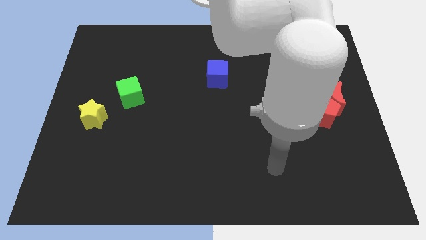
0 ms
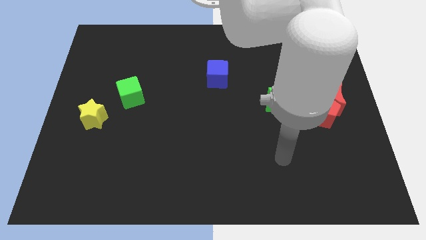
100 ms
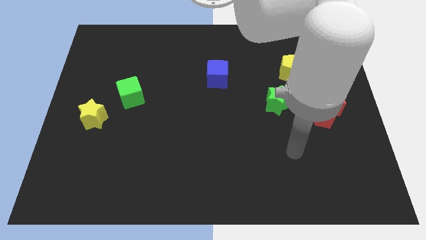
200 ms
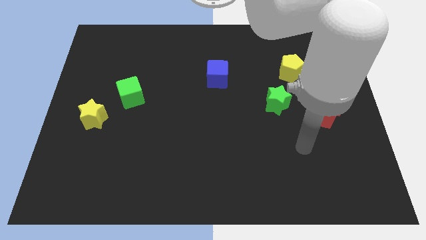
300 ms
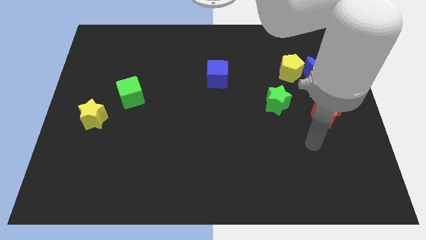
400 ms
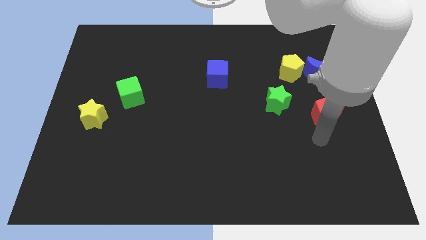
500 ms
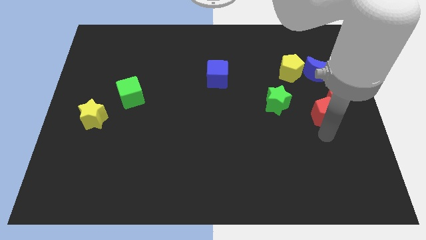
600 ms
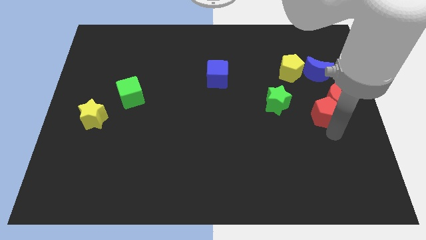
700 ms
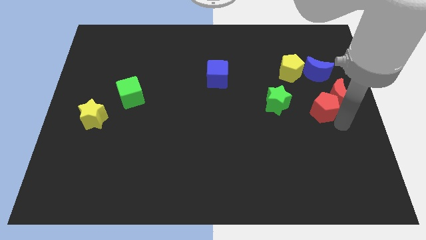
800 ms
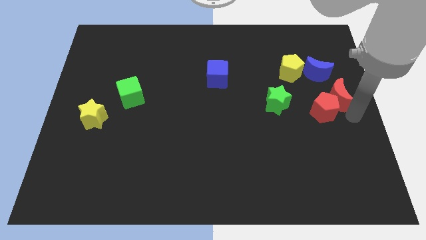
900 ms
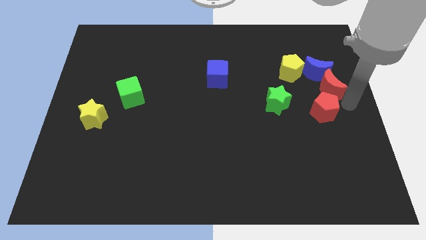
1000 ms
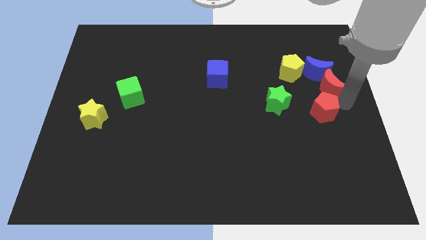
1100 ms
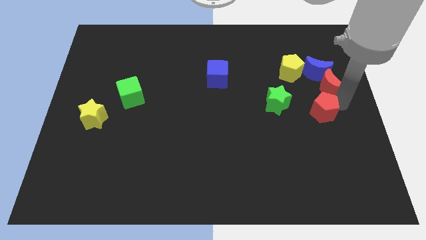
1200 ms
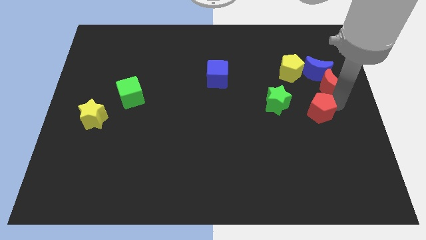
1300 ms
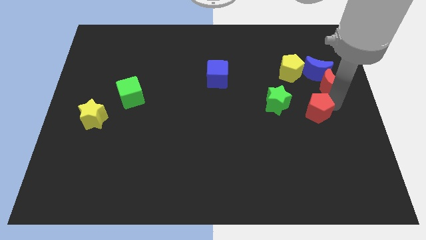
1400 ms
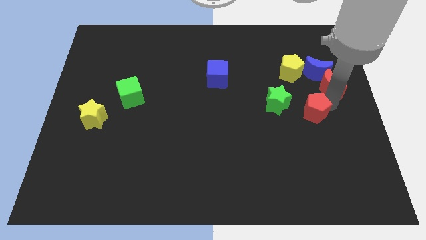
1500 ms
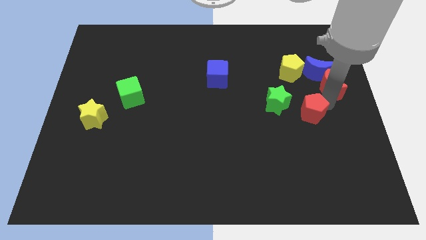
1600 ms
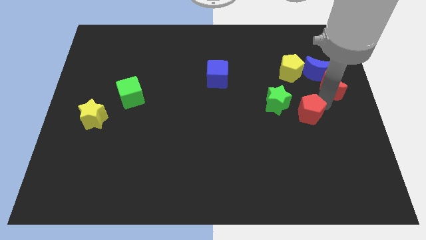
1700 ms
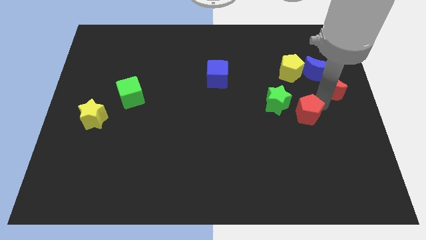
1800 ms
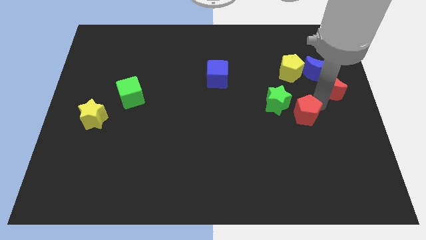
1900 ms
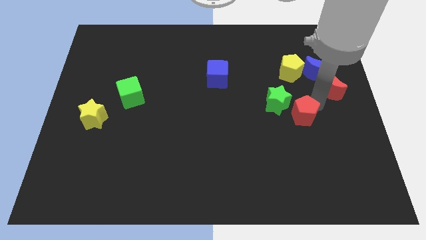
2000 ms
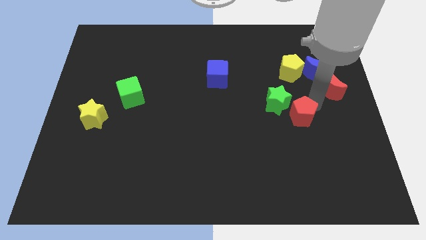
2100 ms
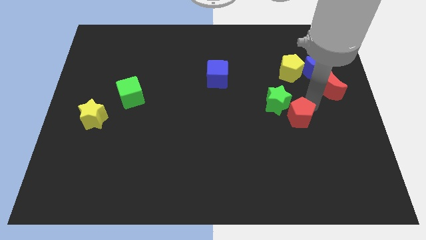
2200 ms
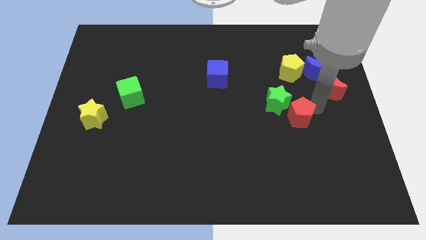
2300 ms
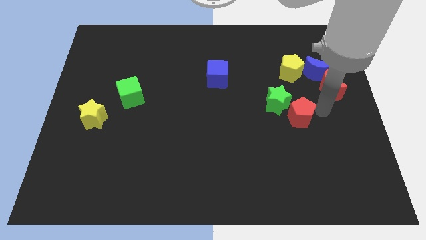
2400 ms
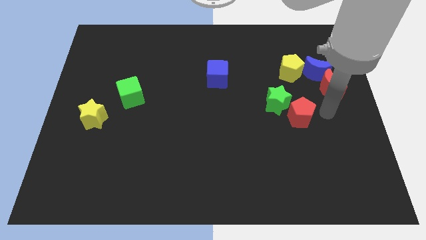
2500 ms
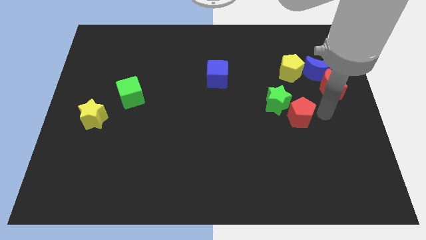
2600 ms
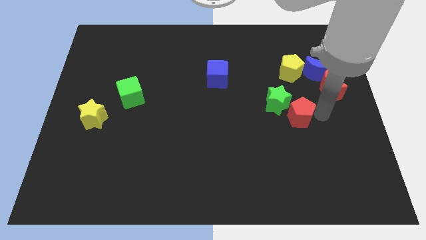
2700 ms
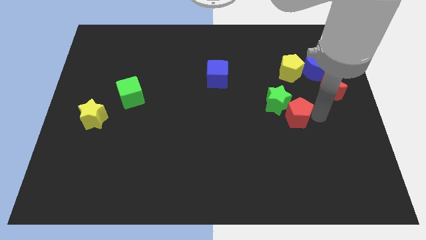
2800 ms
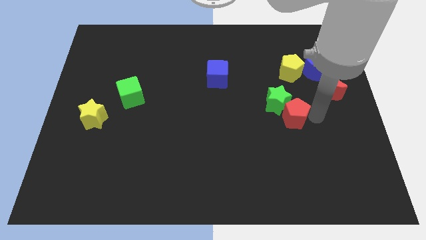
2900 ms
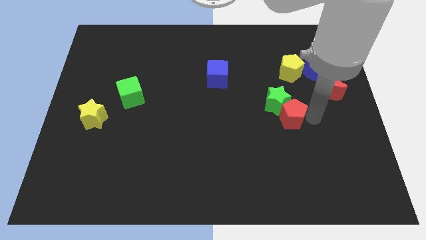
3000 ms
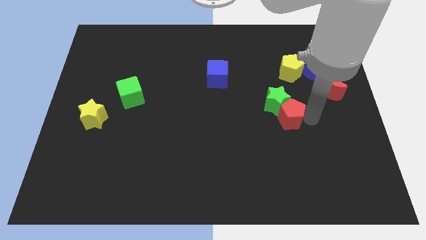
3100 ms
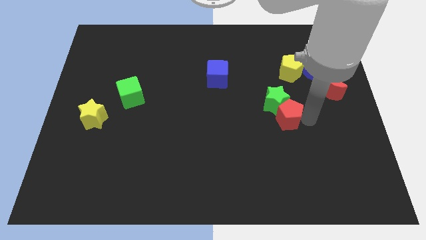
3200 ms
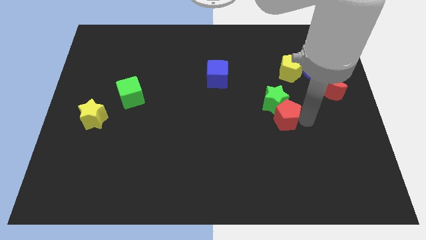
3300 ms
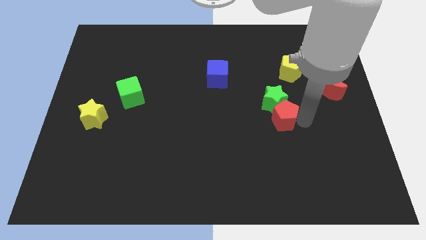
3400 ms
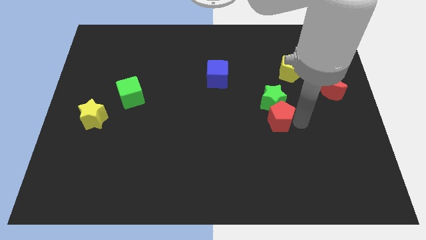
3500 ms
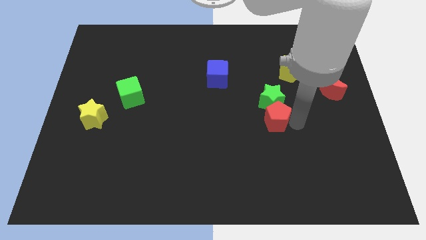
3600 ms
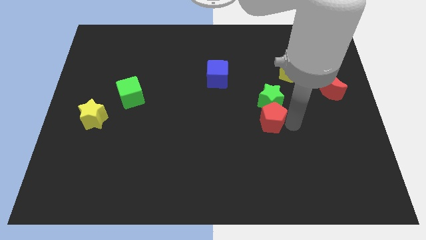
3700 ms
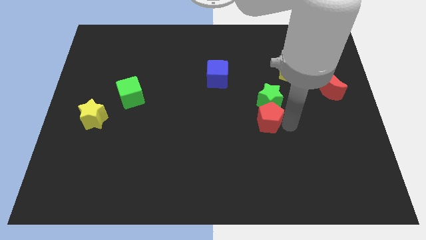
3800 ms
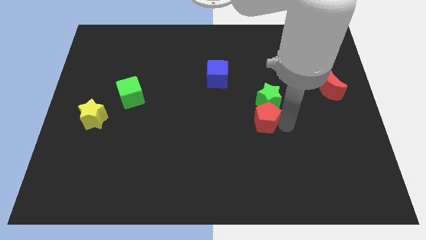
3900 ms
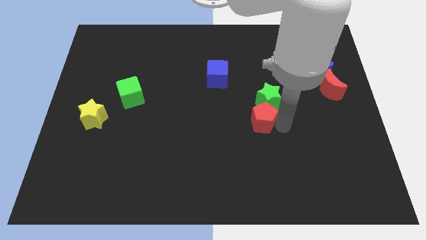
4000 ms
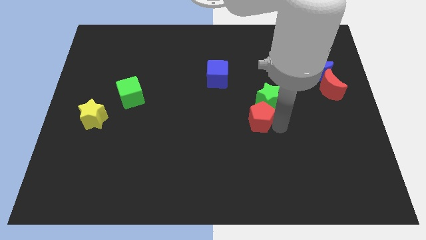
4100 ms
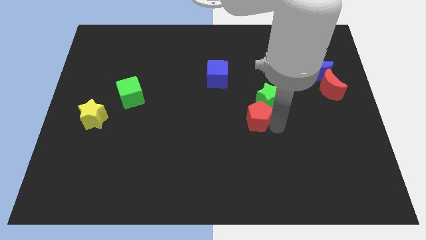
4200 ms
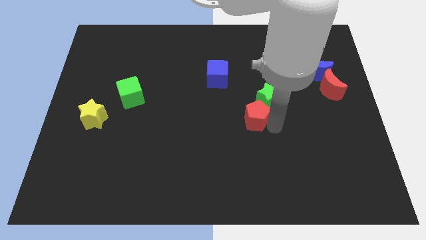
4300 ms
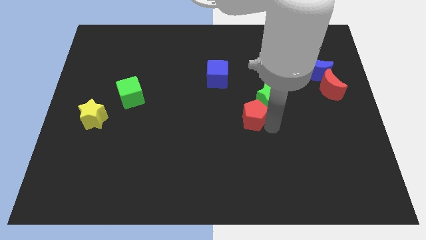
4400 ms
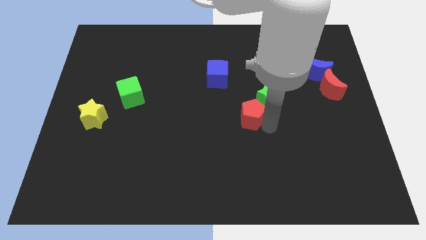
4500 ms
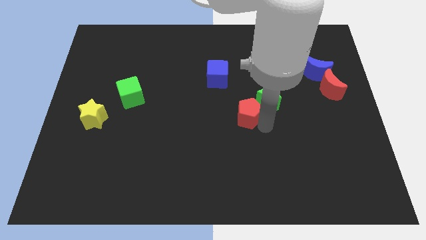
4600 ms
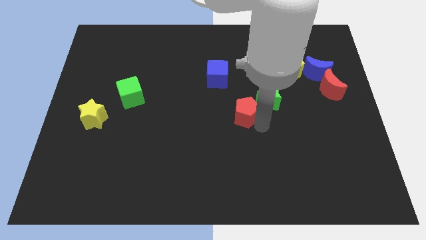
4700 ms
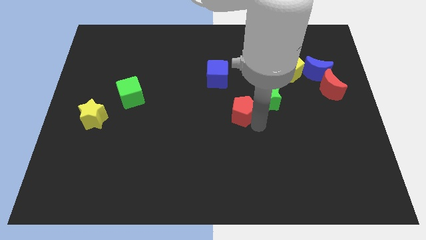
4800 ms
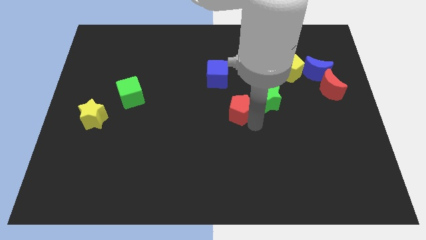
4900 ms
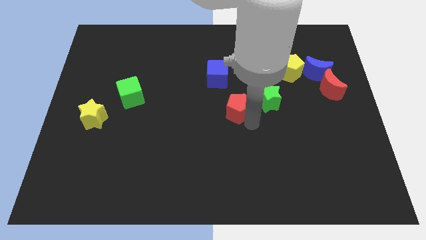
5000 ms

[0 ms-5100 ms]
move the red pentagon left

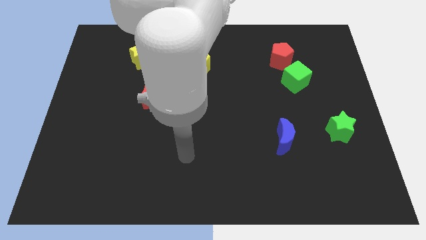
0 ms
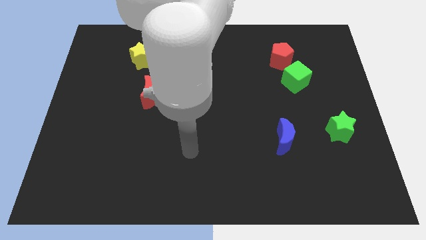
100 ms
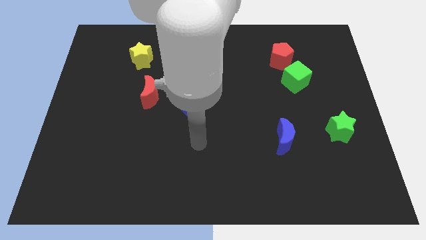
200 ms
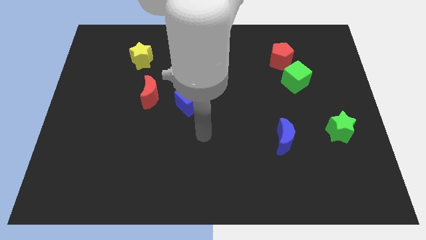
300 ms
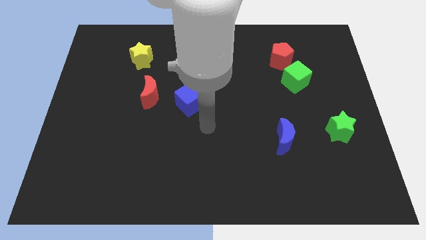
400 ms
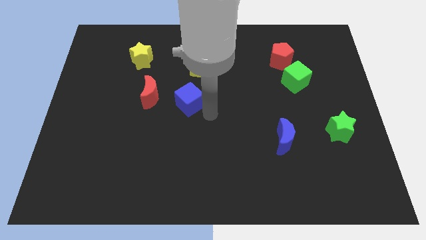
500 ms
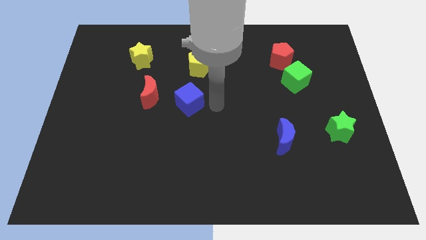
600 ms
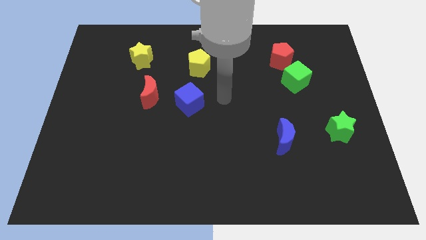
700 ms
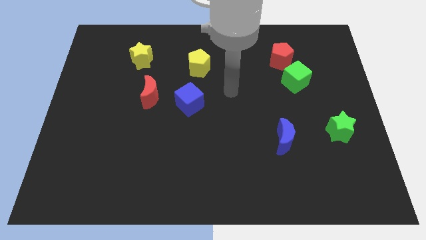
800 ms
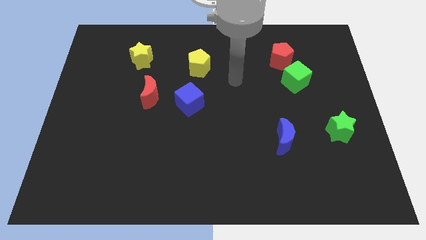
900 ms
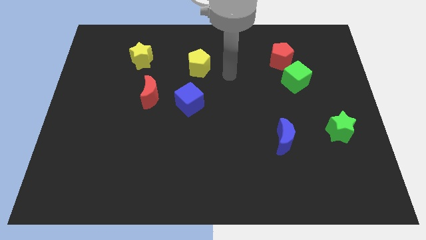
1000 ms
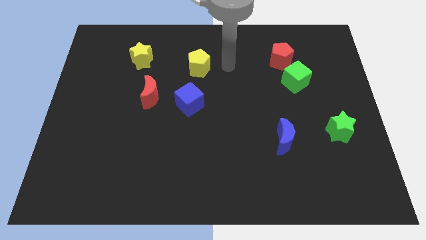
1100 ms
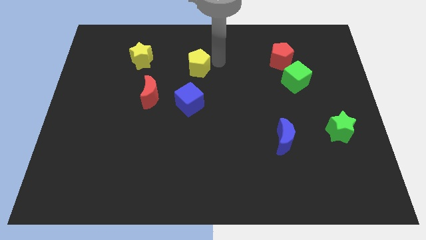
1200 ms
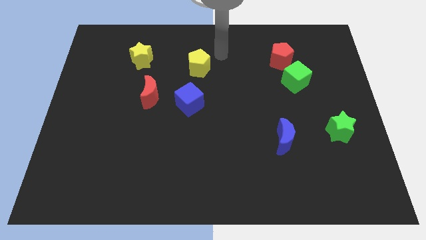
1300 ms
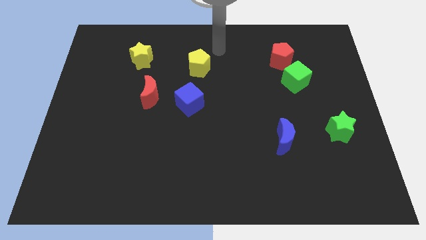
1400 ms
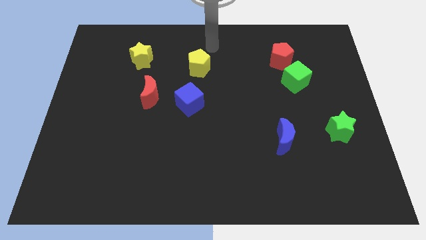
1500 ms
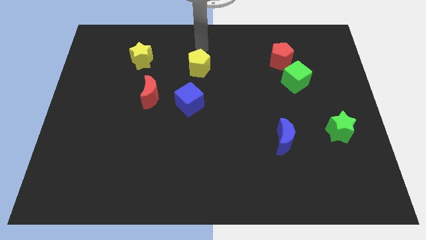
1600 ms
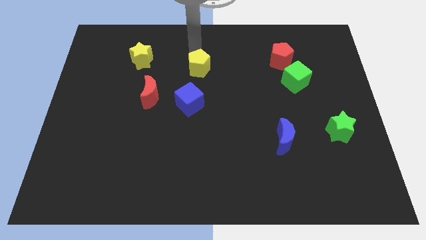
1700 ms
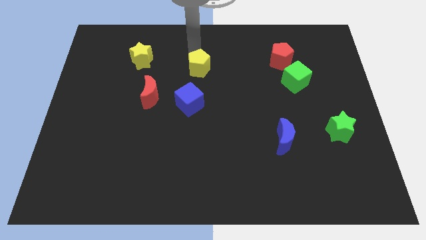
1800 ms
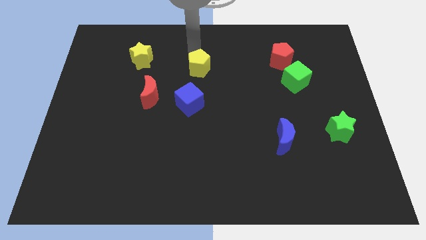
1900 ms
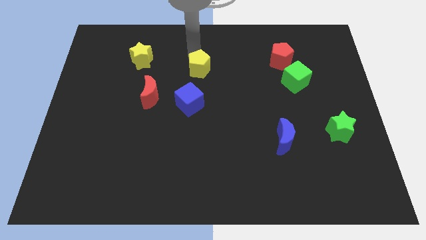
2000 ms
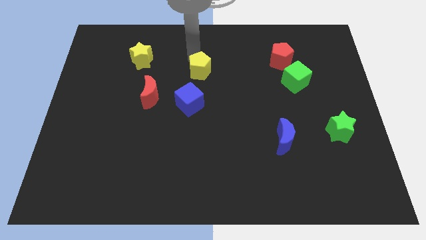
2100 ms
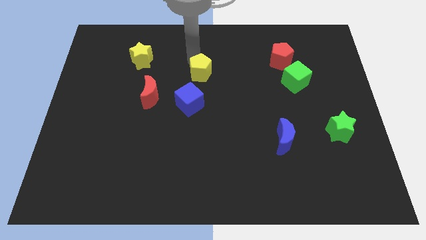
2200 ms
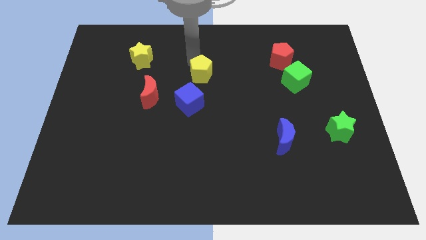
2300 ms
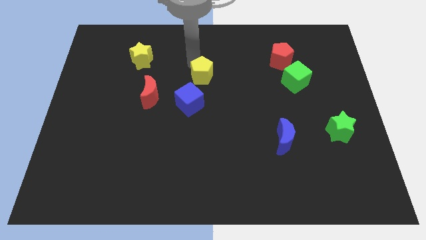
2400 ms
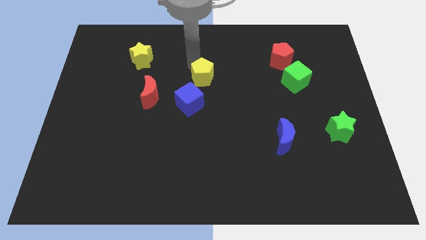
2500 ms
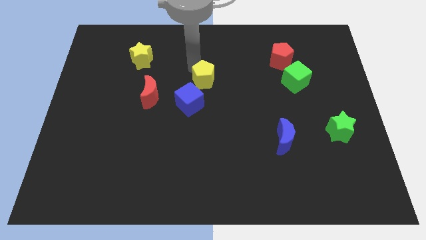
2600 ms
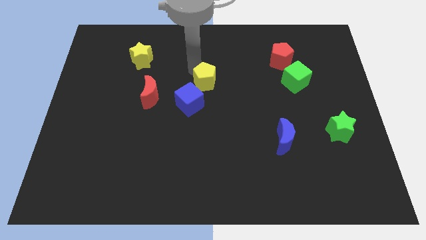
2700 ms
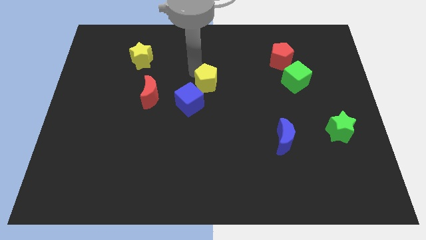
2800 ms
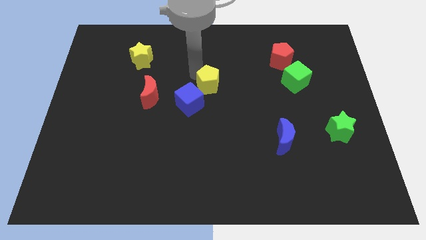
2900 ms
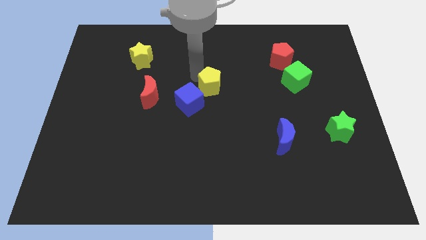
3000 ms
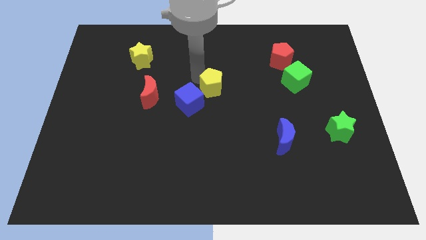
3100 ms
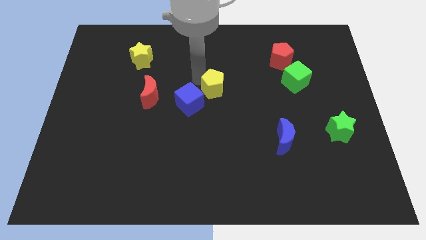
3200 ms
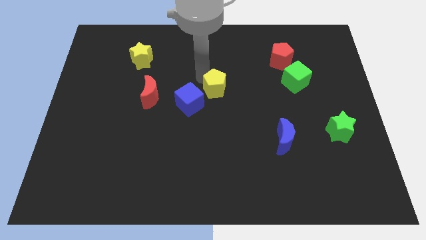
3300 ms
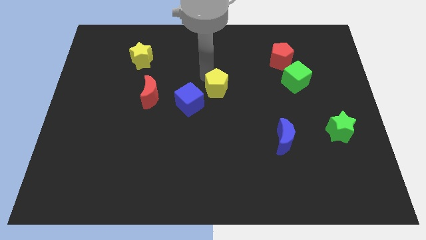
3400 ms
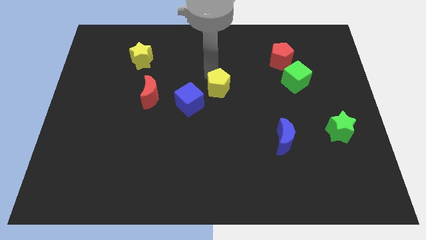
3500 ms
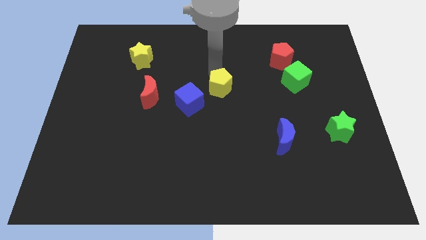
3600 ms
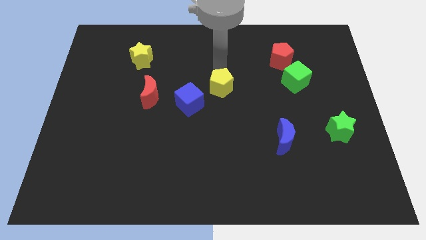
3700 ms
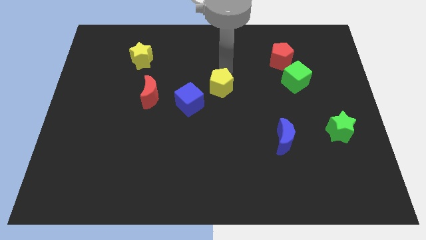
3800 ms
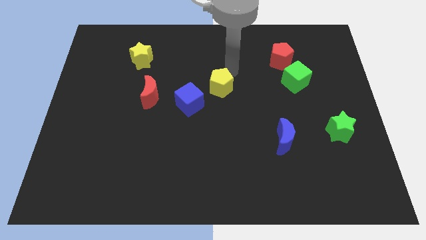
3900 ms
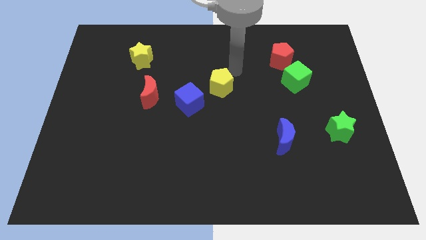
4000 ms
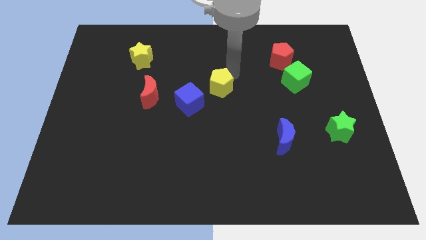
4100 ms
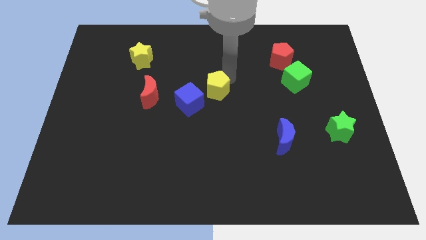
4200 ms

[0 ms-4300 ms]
move the yellow pentagon slightly down
